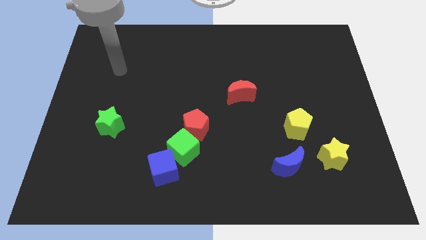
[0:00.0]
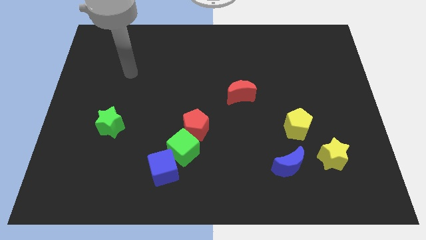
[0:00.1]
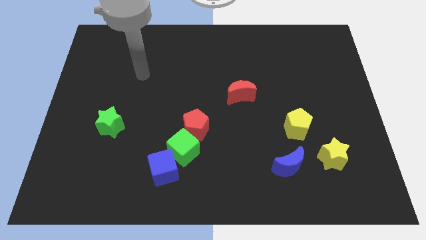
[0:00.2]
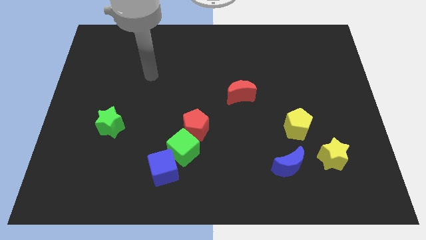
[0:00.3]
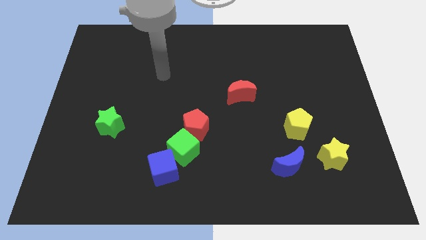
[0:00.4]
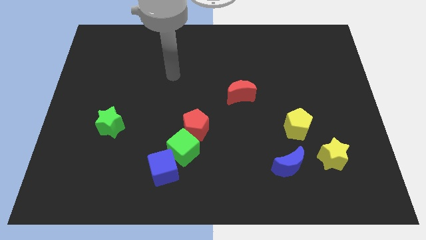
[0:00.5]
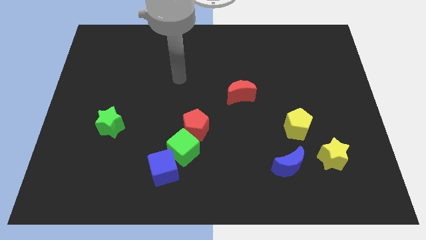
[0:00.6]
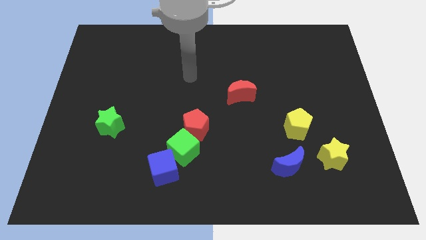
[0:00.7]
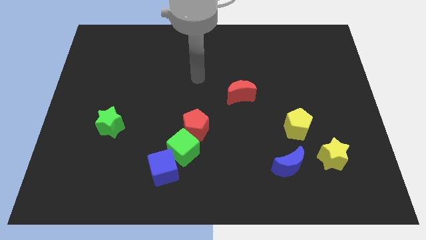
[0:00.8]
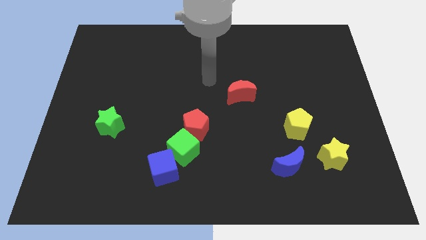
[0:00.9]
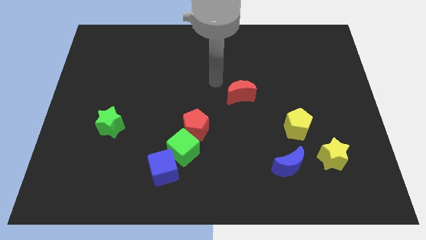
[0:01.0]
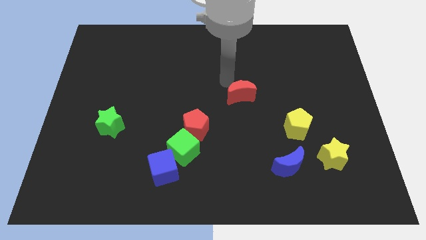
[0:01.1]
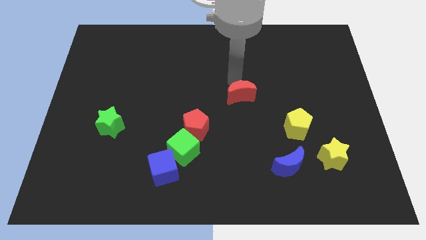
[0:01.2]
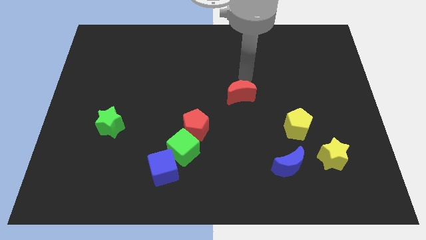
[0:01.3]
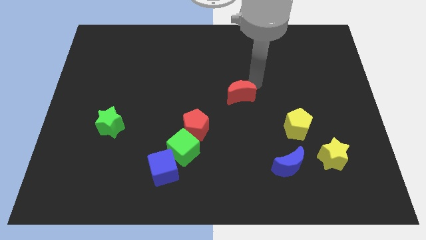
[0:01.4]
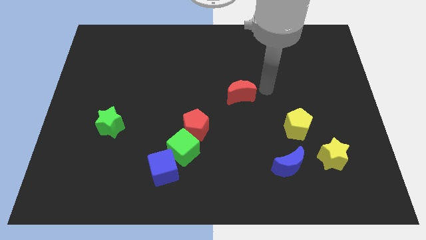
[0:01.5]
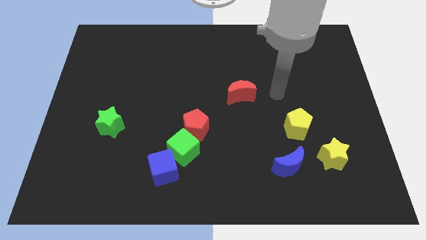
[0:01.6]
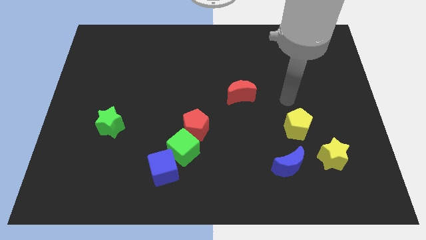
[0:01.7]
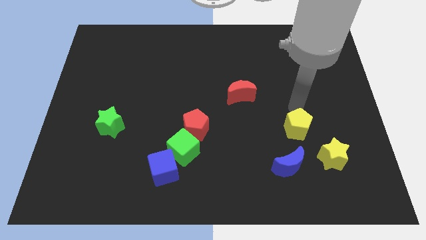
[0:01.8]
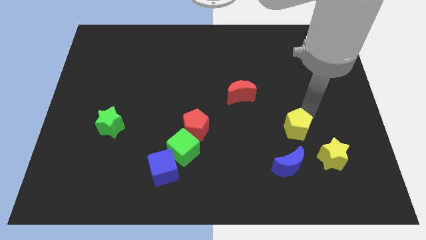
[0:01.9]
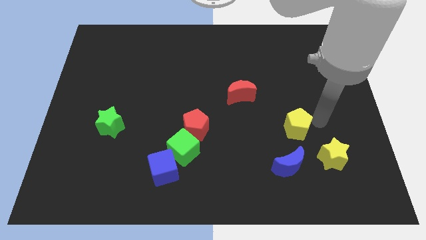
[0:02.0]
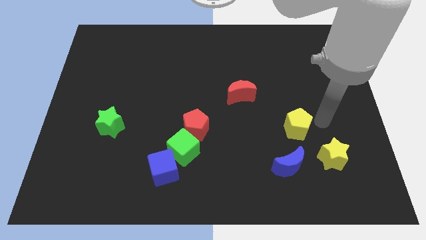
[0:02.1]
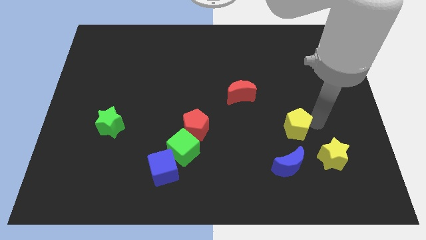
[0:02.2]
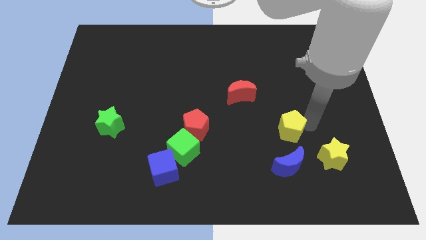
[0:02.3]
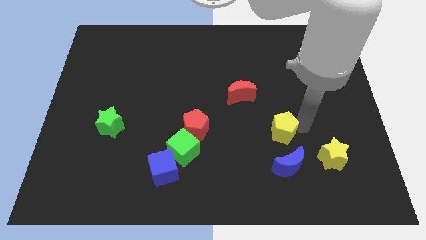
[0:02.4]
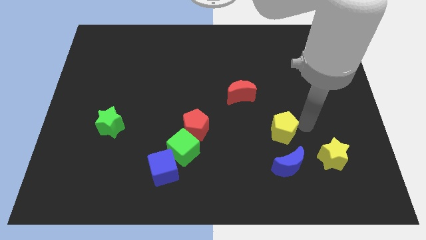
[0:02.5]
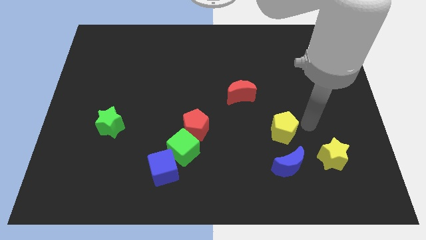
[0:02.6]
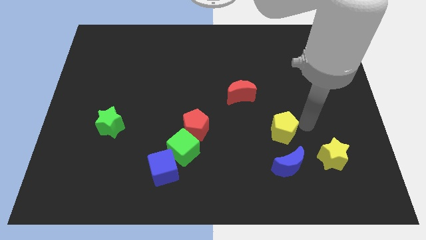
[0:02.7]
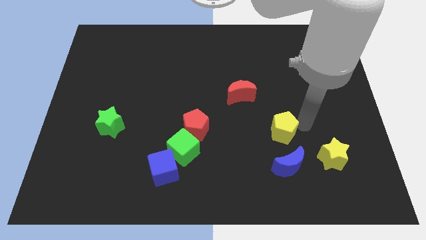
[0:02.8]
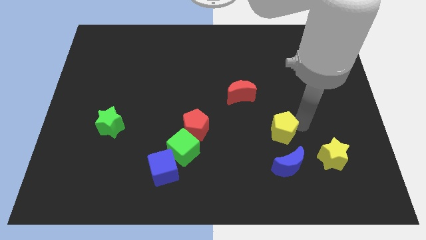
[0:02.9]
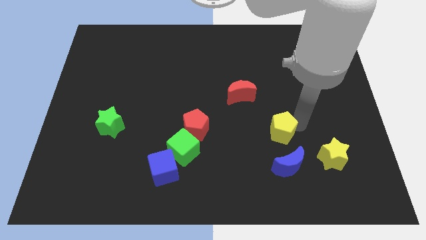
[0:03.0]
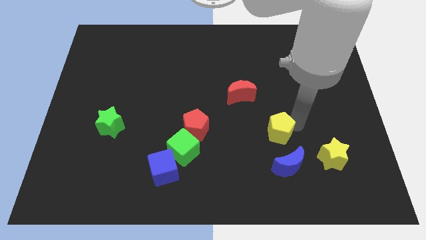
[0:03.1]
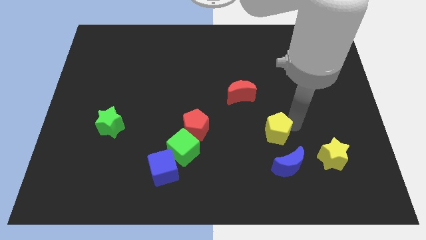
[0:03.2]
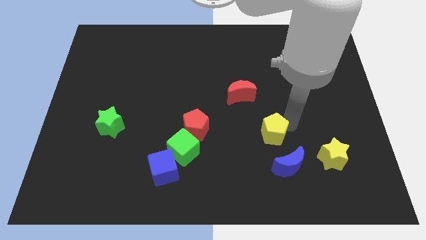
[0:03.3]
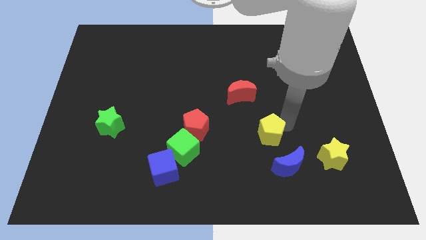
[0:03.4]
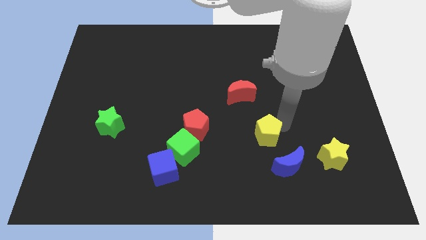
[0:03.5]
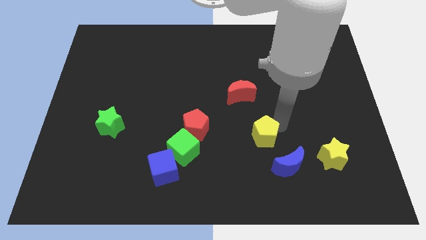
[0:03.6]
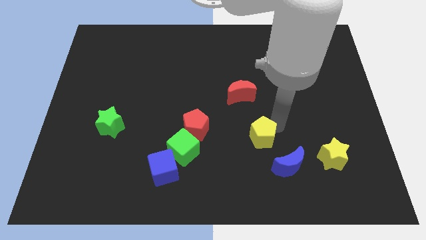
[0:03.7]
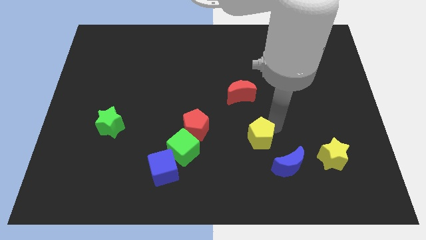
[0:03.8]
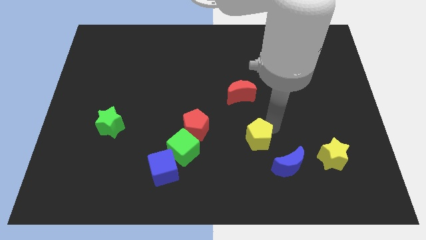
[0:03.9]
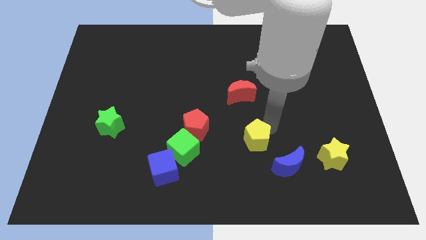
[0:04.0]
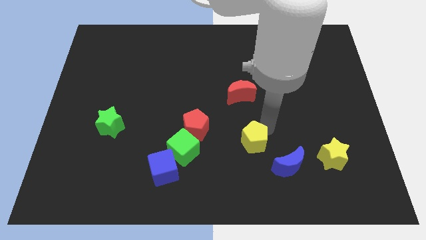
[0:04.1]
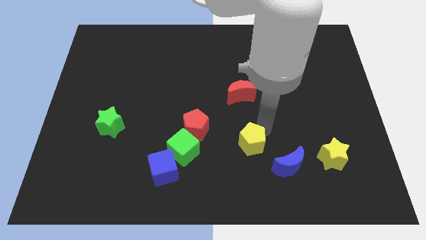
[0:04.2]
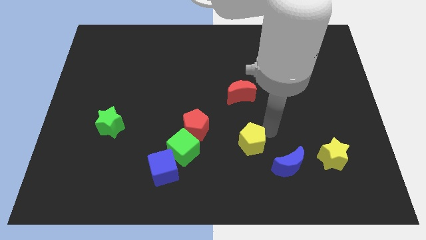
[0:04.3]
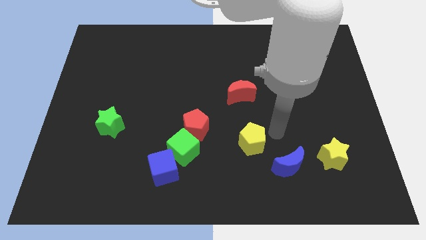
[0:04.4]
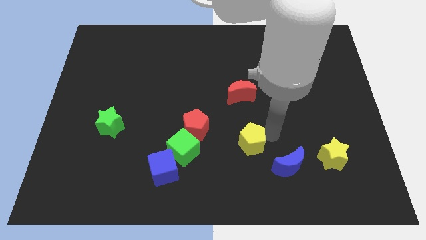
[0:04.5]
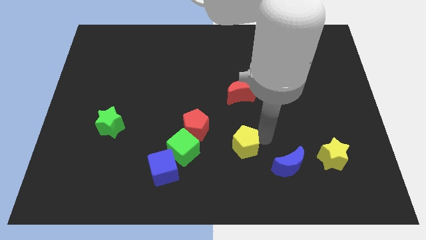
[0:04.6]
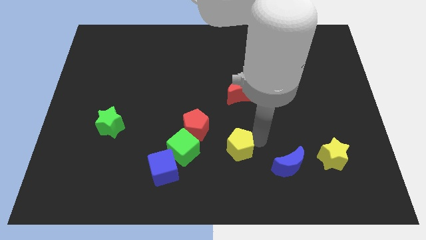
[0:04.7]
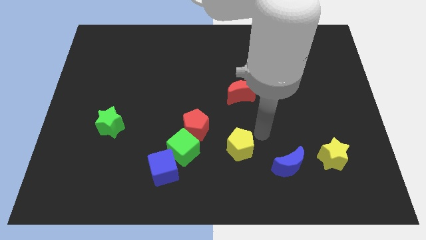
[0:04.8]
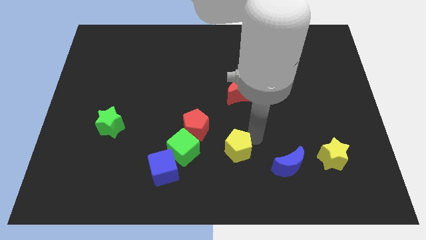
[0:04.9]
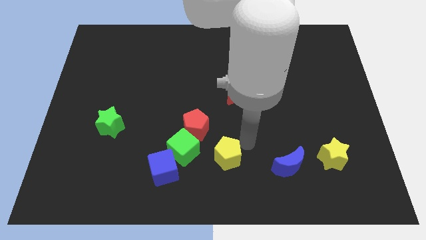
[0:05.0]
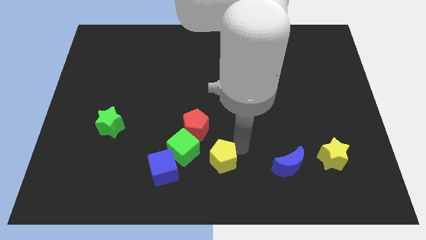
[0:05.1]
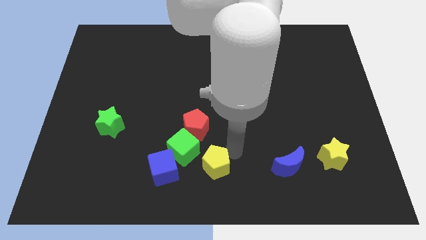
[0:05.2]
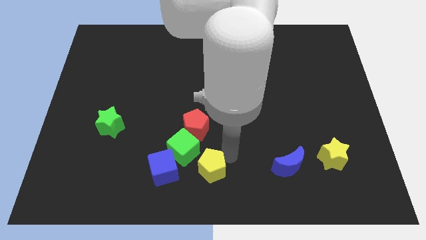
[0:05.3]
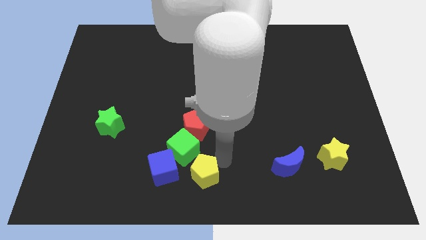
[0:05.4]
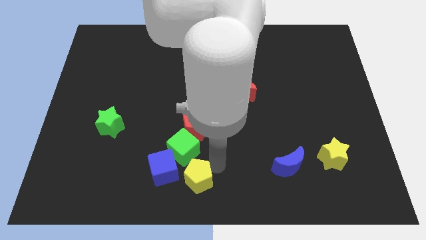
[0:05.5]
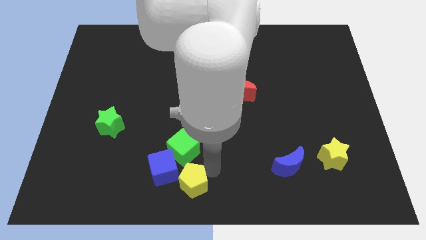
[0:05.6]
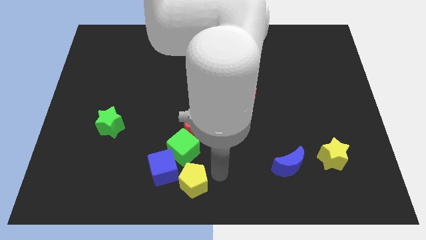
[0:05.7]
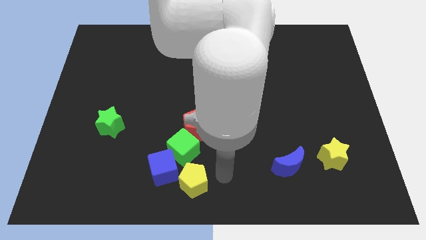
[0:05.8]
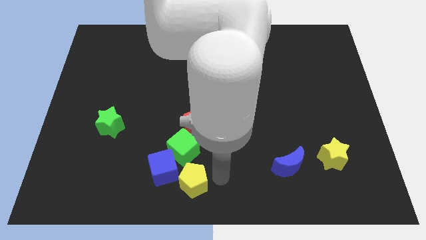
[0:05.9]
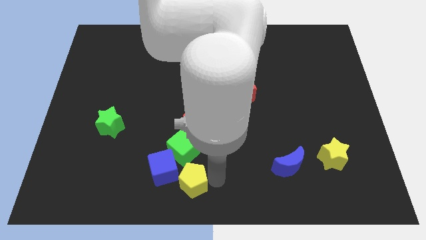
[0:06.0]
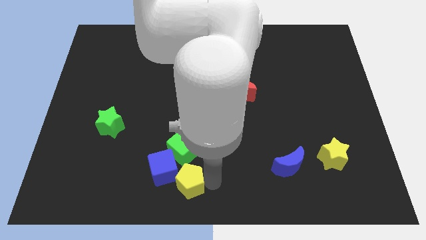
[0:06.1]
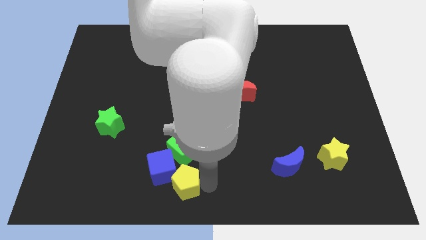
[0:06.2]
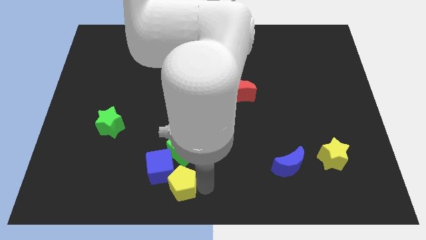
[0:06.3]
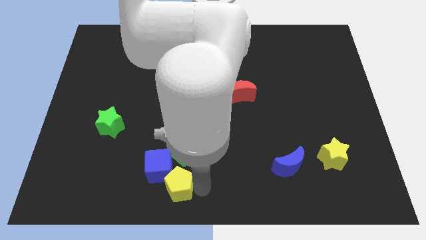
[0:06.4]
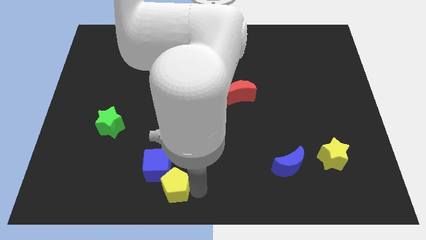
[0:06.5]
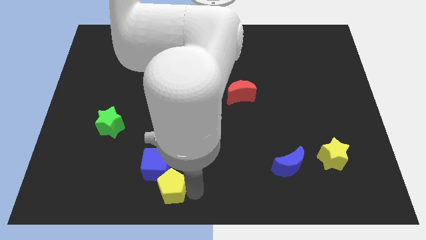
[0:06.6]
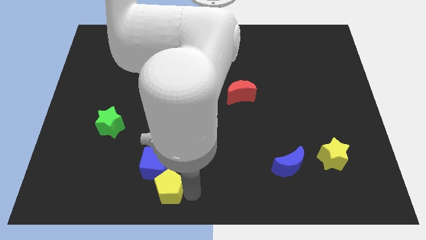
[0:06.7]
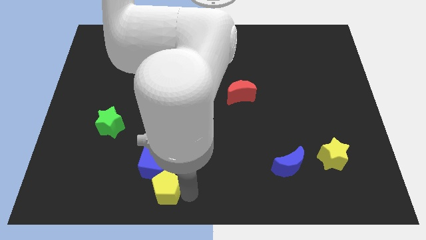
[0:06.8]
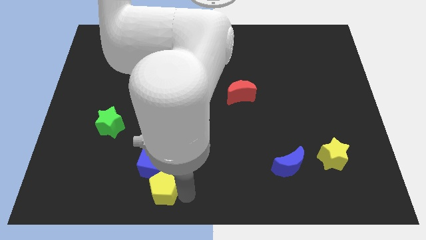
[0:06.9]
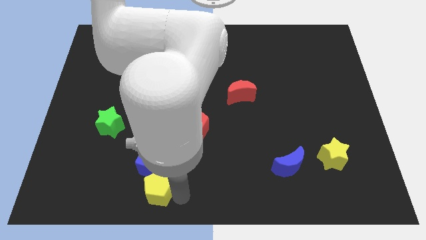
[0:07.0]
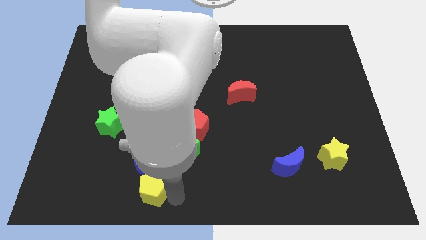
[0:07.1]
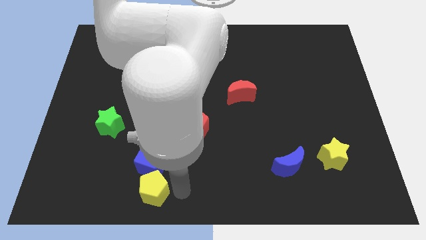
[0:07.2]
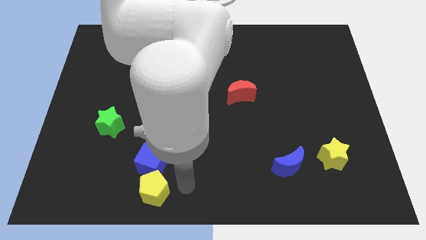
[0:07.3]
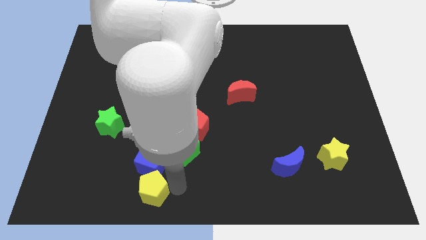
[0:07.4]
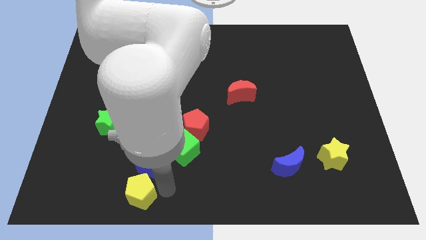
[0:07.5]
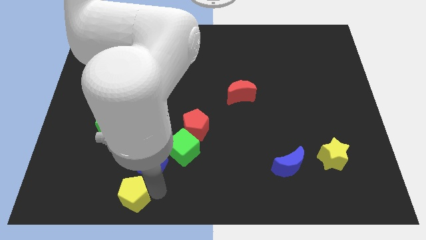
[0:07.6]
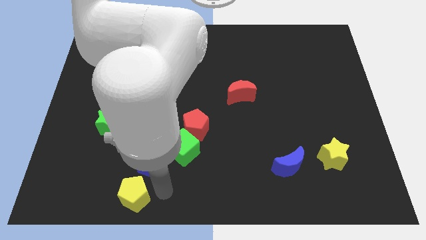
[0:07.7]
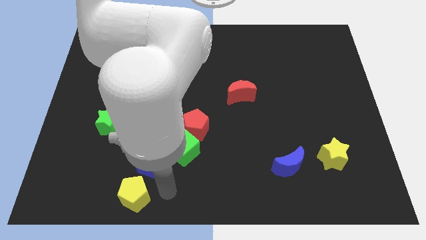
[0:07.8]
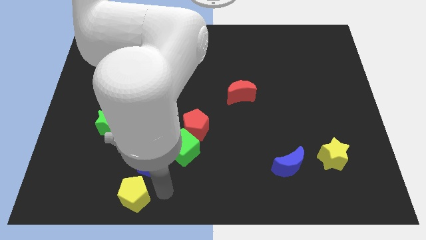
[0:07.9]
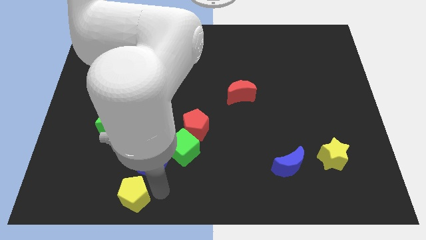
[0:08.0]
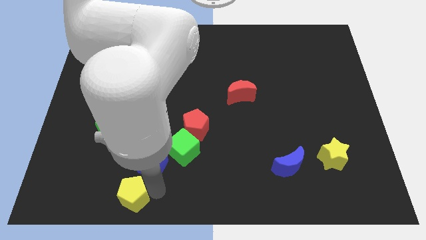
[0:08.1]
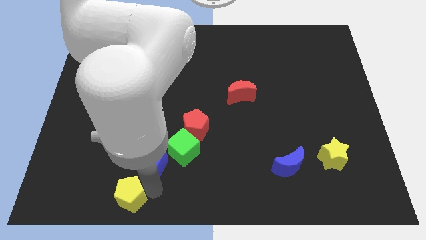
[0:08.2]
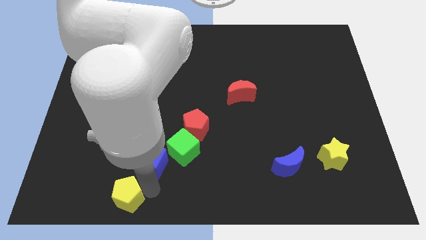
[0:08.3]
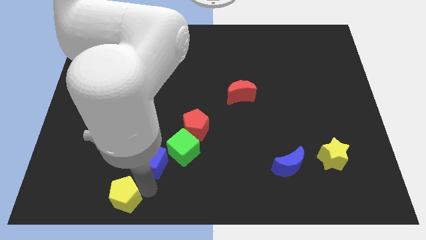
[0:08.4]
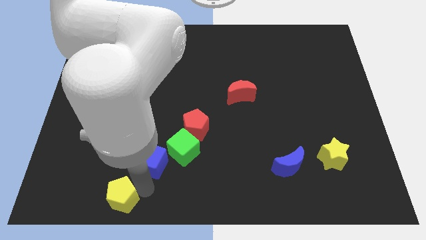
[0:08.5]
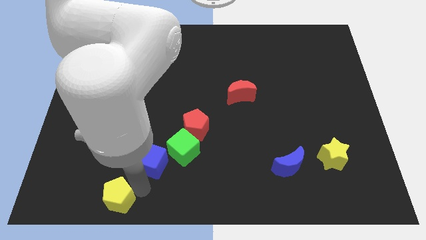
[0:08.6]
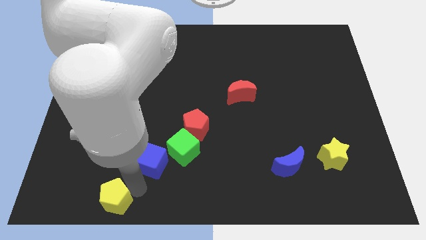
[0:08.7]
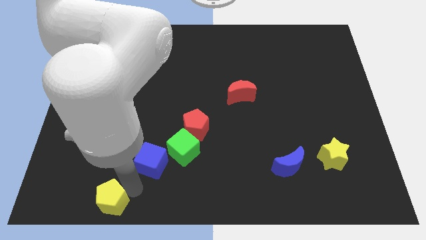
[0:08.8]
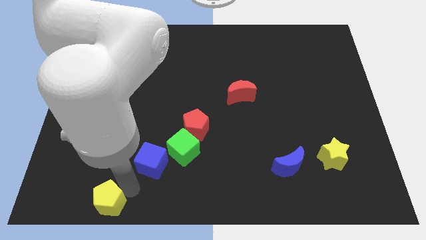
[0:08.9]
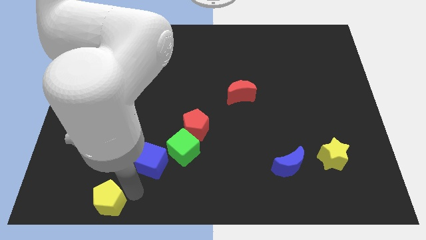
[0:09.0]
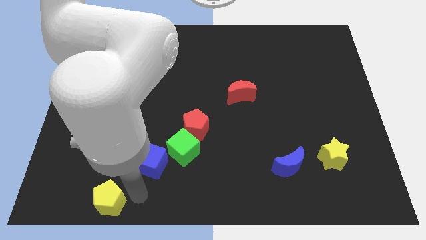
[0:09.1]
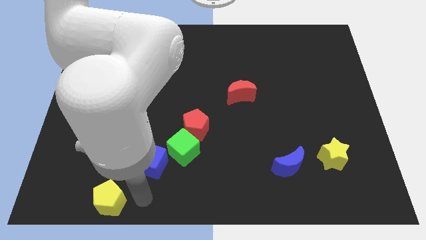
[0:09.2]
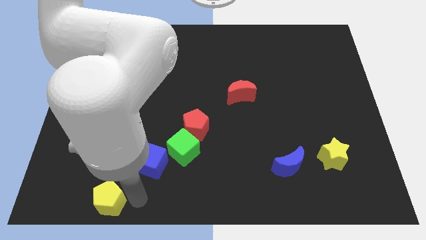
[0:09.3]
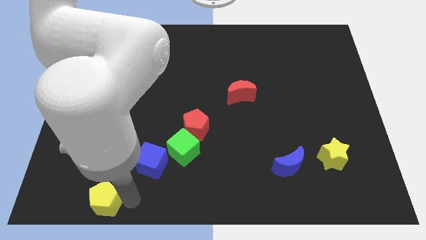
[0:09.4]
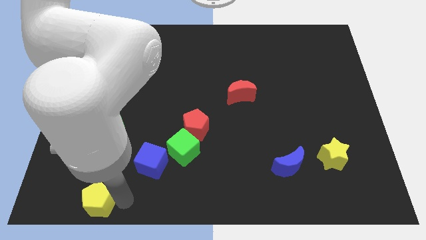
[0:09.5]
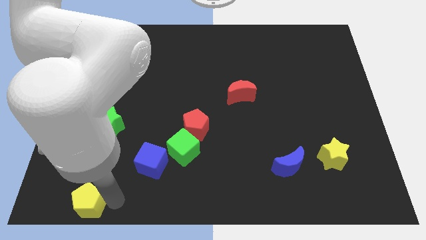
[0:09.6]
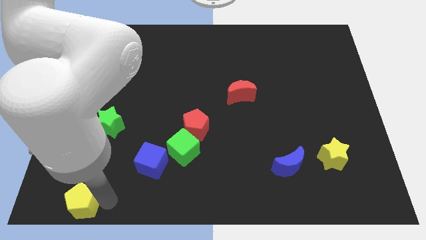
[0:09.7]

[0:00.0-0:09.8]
put the yellow pentagon to the bottom left corner
